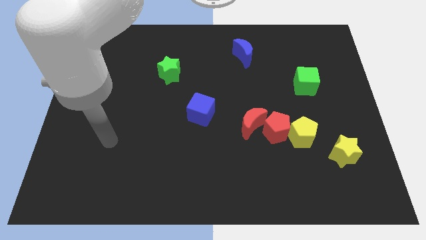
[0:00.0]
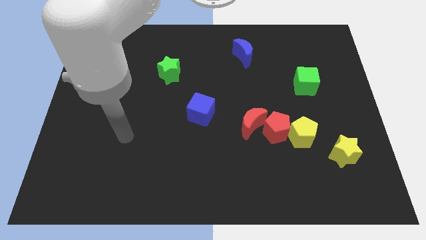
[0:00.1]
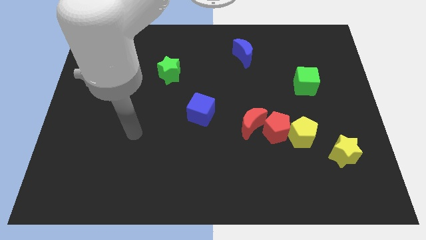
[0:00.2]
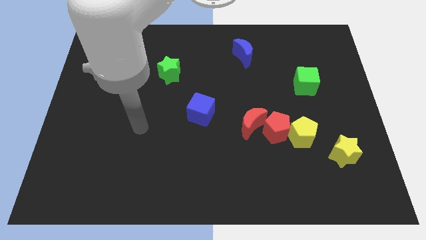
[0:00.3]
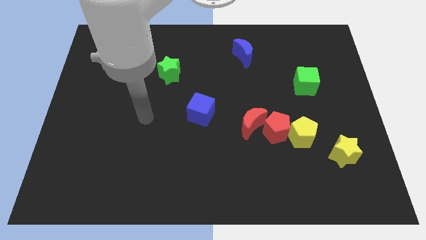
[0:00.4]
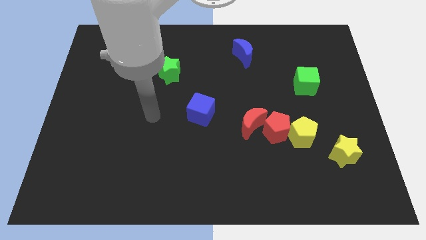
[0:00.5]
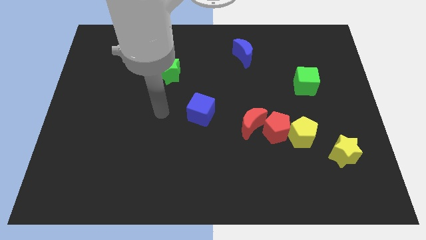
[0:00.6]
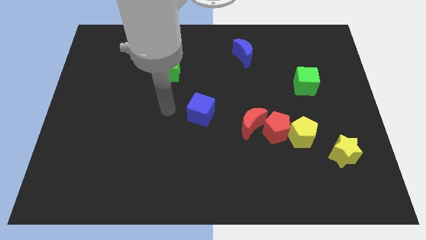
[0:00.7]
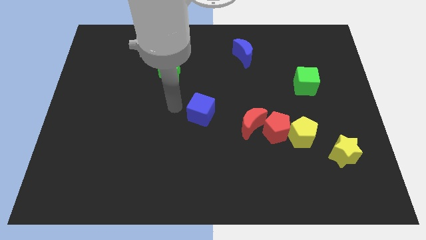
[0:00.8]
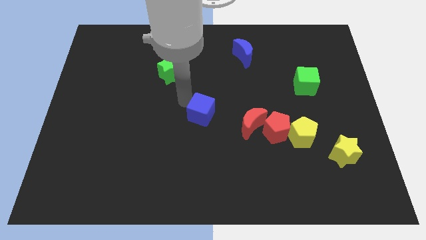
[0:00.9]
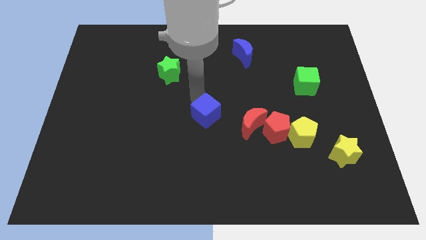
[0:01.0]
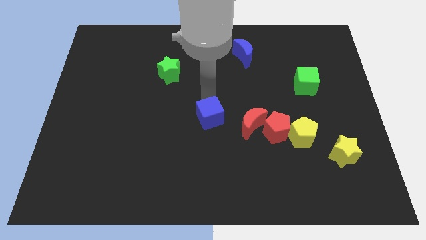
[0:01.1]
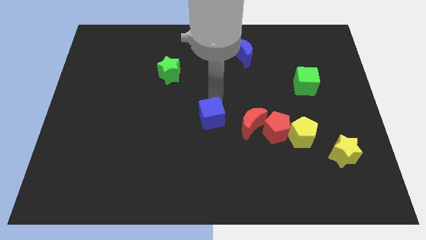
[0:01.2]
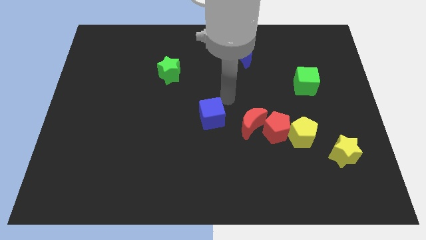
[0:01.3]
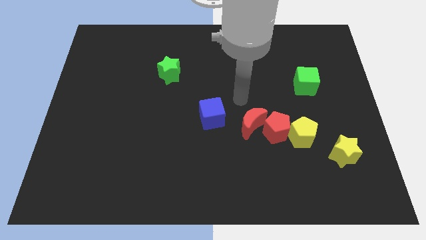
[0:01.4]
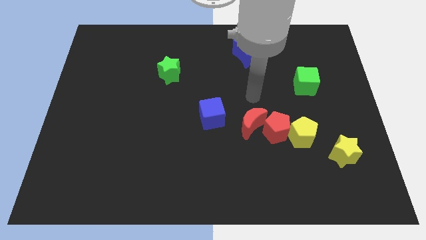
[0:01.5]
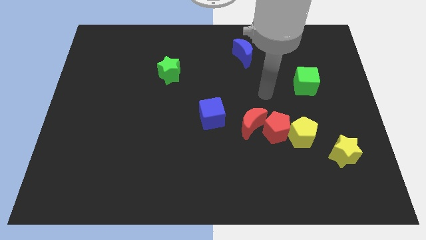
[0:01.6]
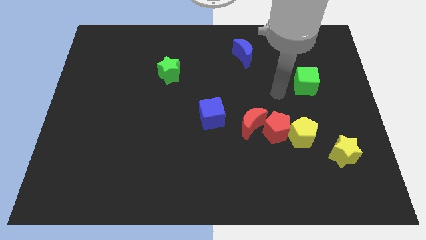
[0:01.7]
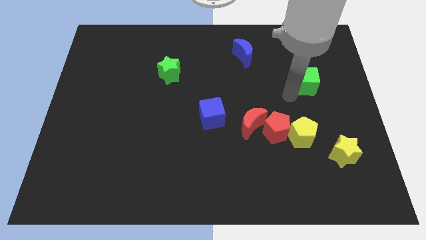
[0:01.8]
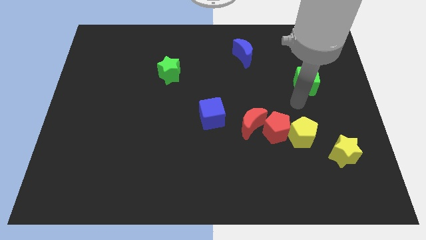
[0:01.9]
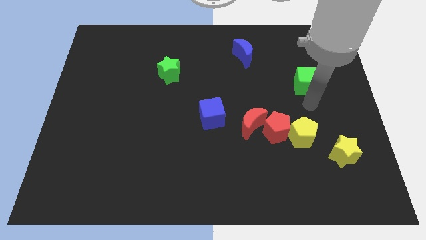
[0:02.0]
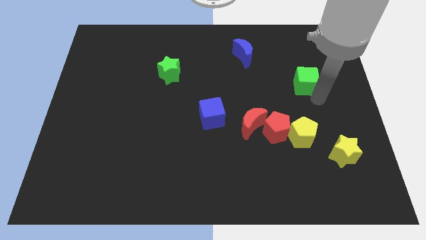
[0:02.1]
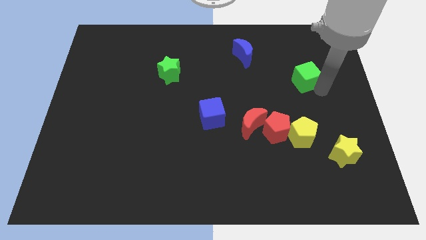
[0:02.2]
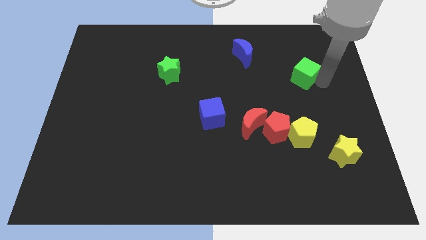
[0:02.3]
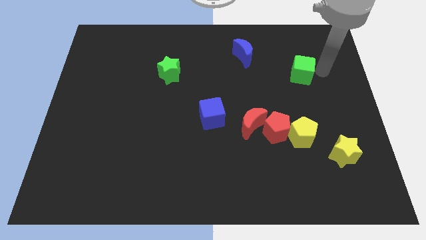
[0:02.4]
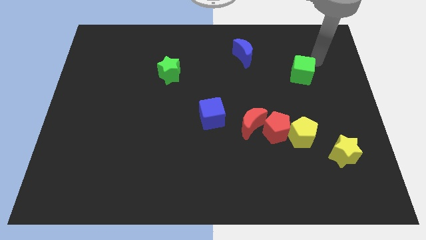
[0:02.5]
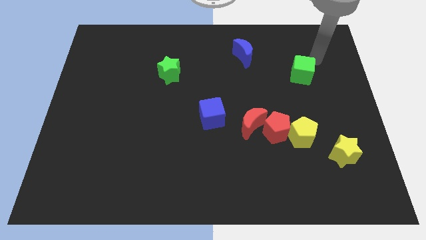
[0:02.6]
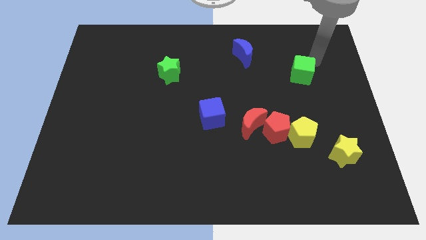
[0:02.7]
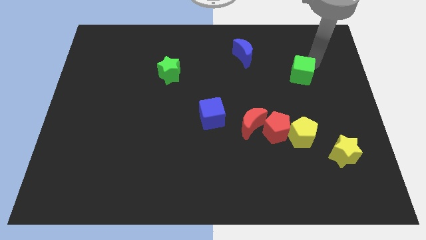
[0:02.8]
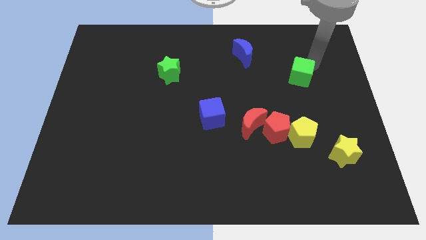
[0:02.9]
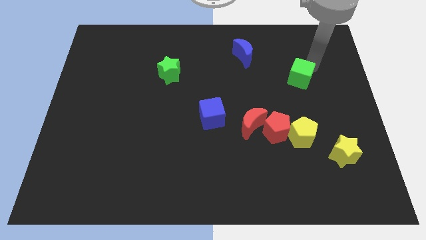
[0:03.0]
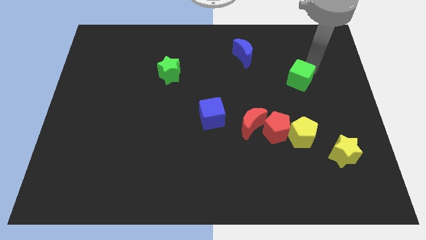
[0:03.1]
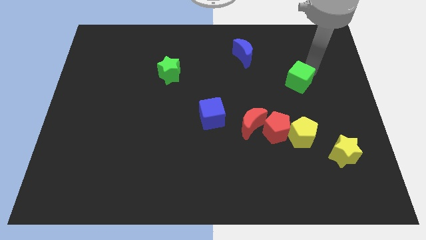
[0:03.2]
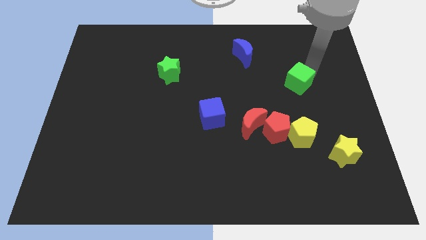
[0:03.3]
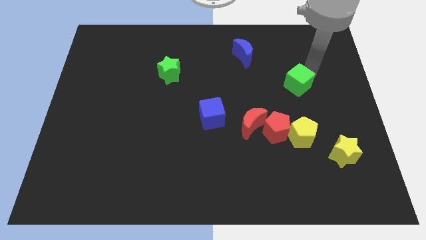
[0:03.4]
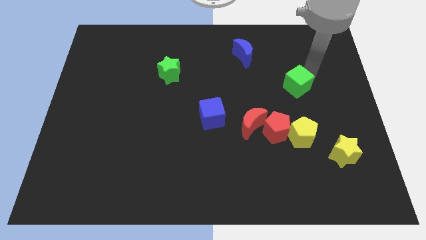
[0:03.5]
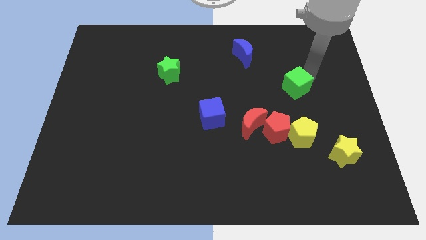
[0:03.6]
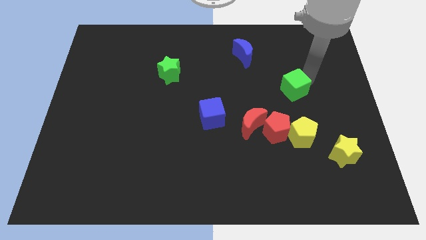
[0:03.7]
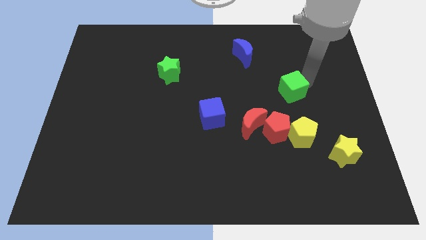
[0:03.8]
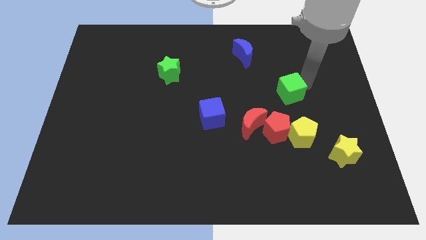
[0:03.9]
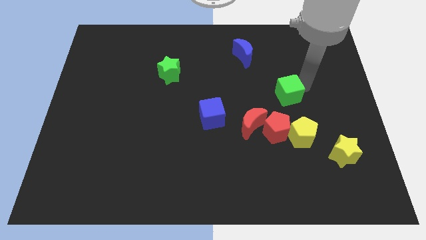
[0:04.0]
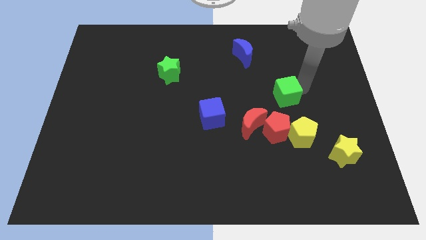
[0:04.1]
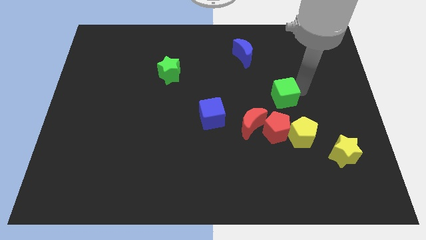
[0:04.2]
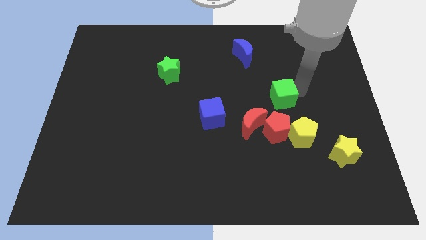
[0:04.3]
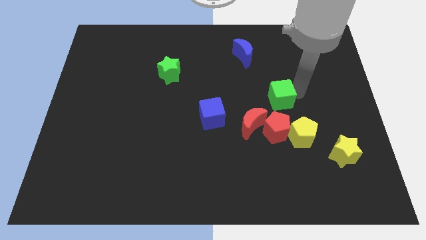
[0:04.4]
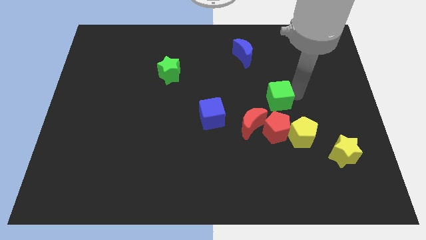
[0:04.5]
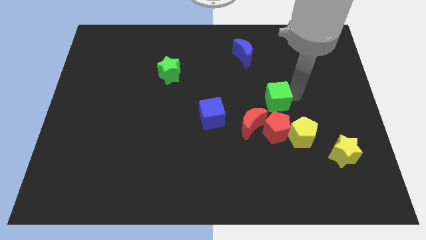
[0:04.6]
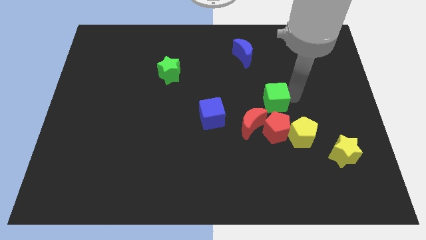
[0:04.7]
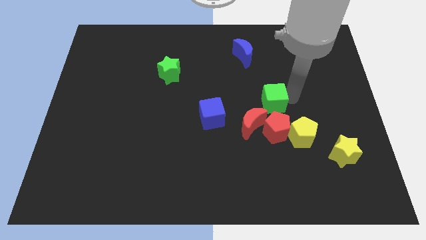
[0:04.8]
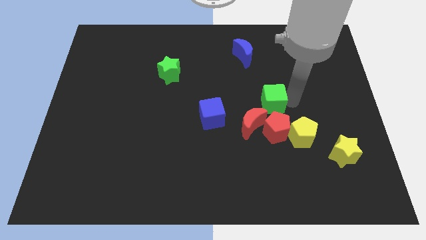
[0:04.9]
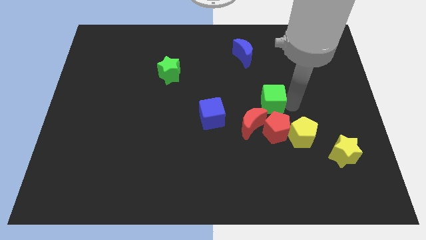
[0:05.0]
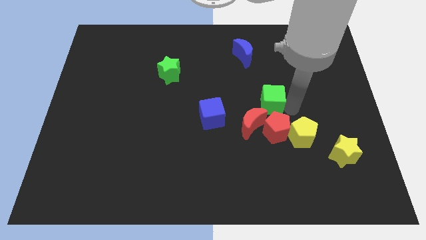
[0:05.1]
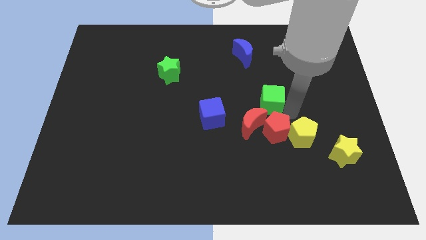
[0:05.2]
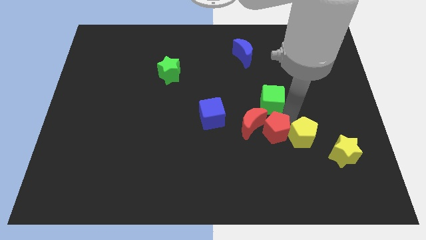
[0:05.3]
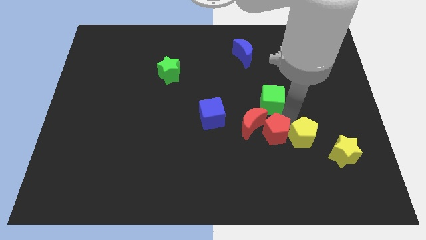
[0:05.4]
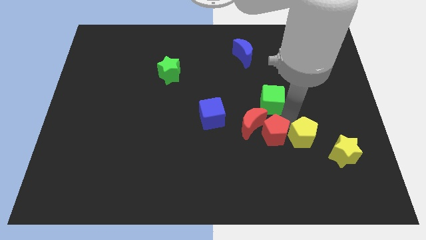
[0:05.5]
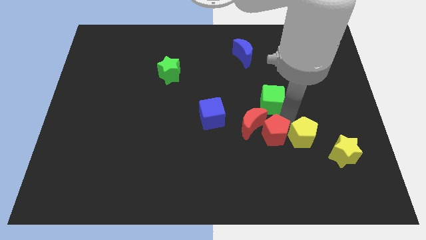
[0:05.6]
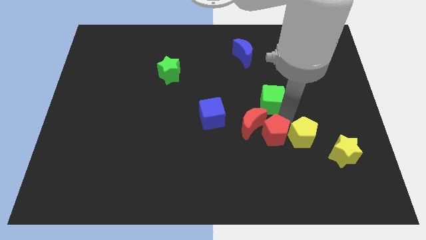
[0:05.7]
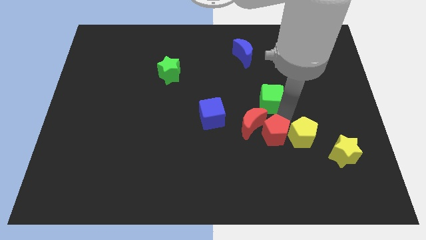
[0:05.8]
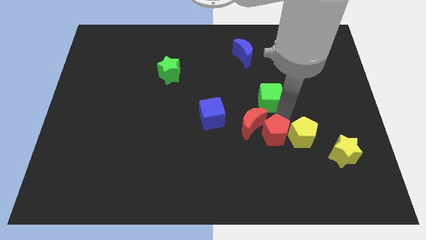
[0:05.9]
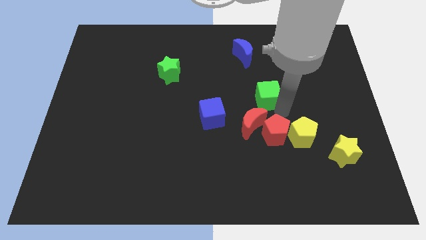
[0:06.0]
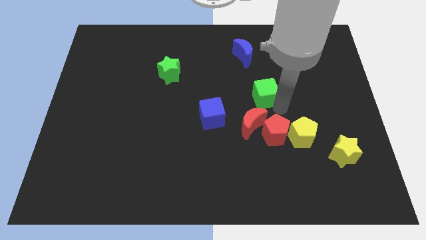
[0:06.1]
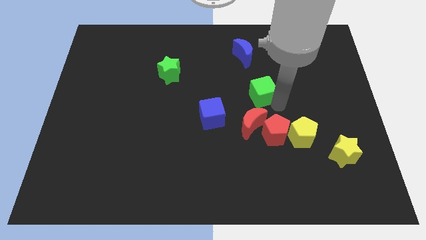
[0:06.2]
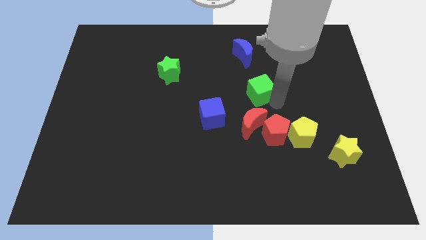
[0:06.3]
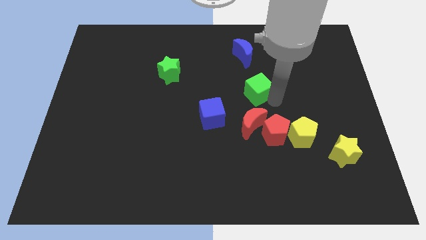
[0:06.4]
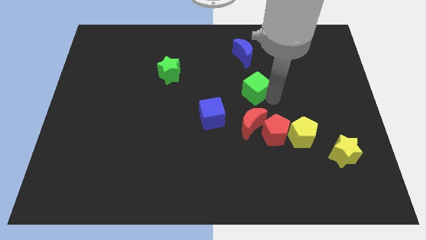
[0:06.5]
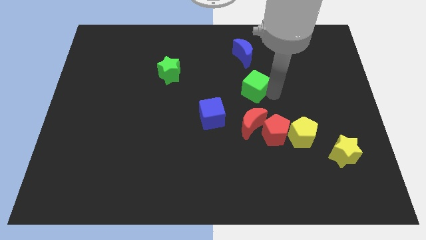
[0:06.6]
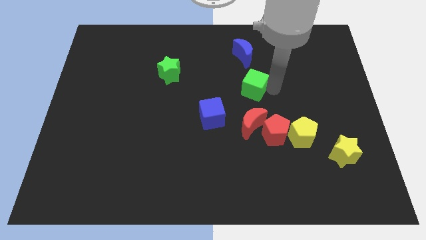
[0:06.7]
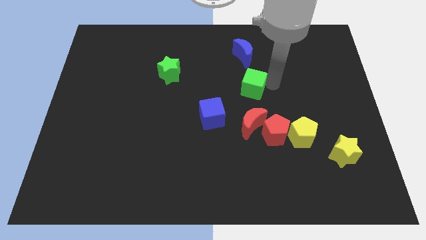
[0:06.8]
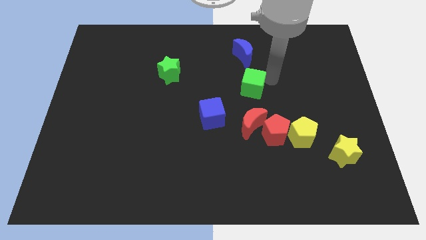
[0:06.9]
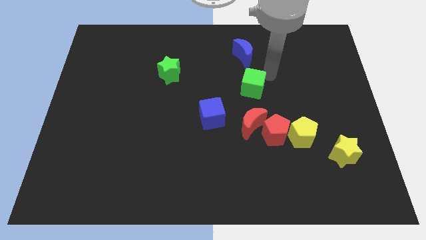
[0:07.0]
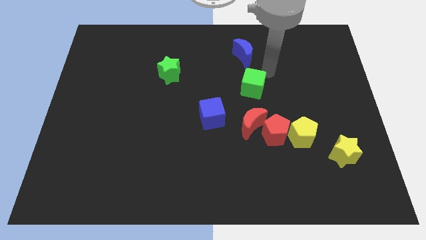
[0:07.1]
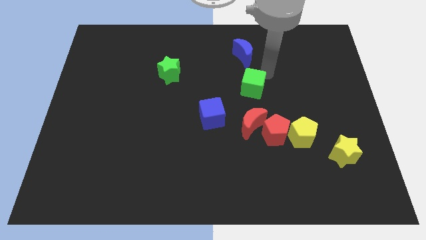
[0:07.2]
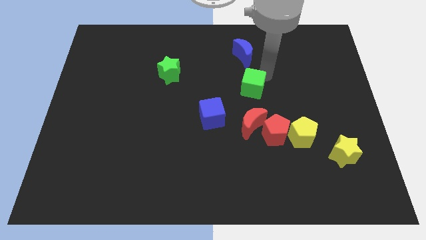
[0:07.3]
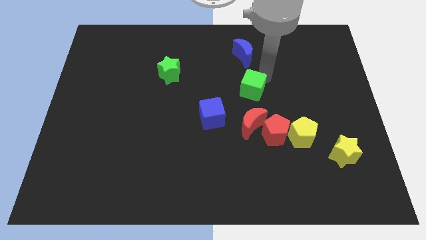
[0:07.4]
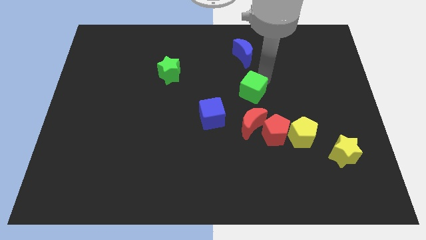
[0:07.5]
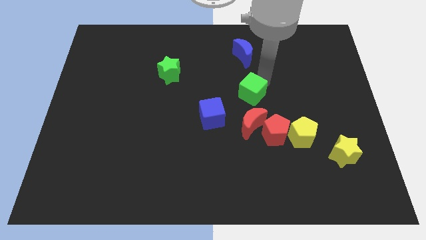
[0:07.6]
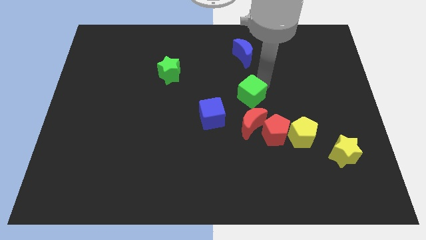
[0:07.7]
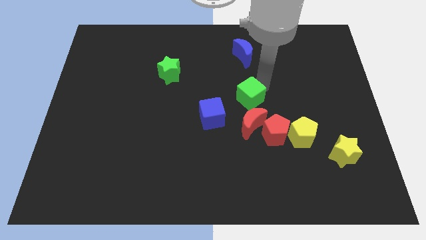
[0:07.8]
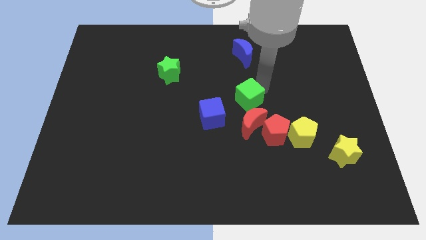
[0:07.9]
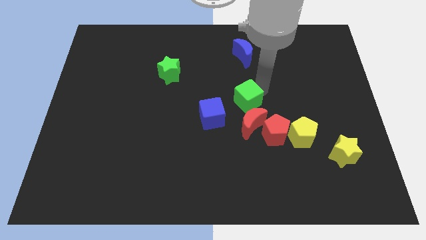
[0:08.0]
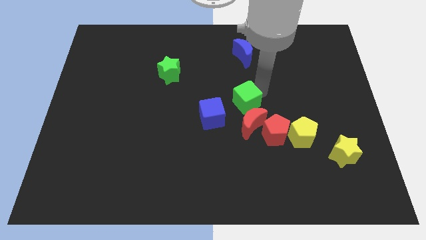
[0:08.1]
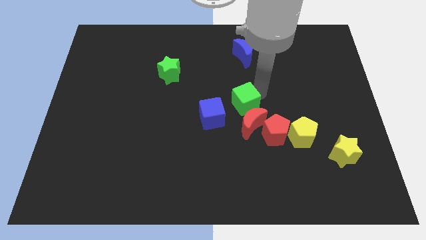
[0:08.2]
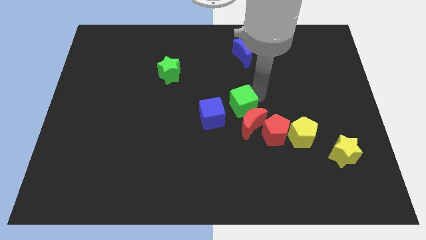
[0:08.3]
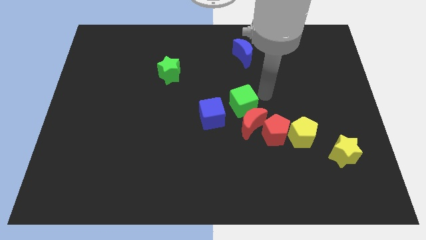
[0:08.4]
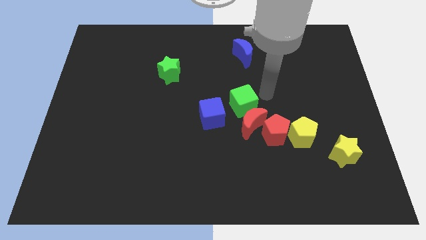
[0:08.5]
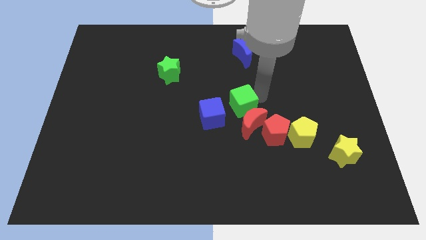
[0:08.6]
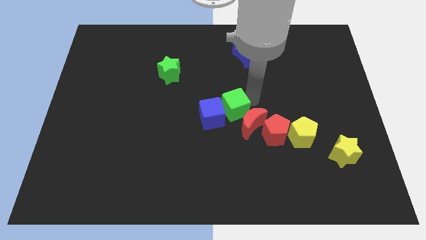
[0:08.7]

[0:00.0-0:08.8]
slide the green cube close to the blue cube
